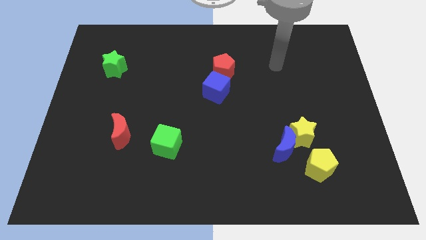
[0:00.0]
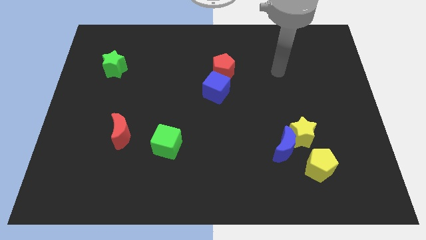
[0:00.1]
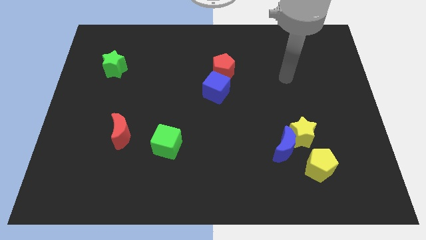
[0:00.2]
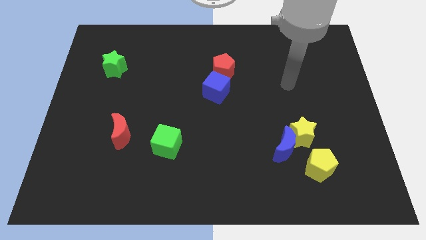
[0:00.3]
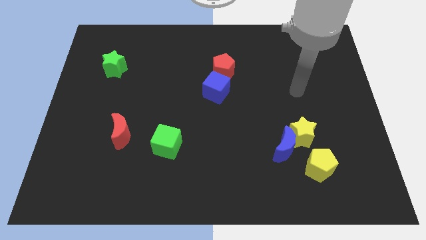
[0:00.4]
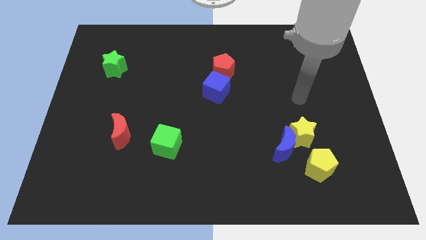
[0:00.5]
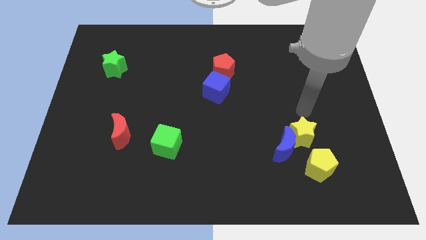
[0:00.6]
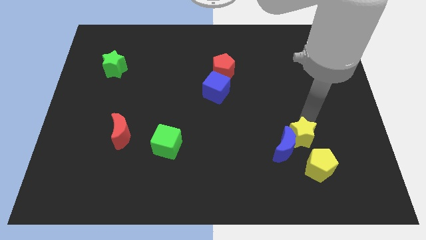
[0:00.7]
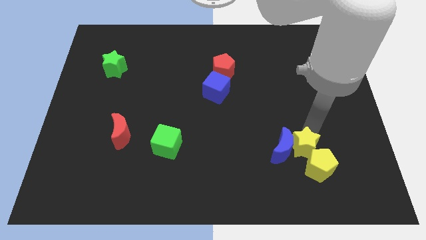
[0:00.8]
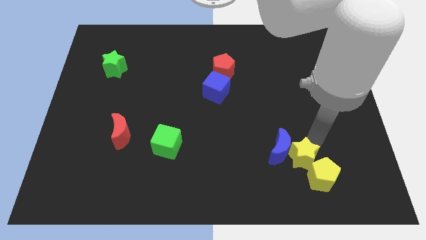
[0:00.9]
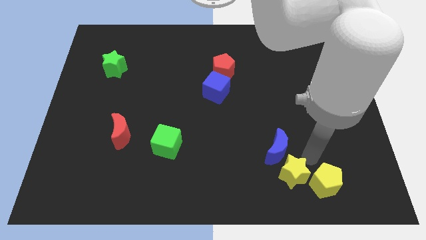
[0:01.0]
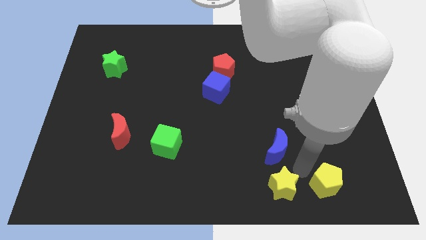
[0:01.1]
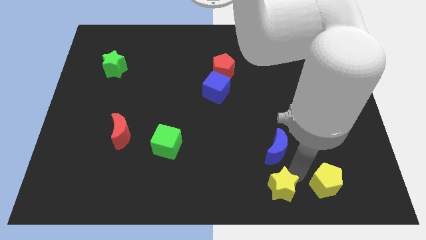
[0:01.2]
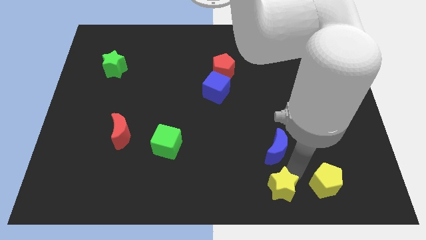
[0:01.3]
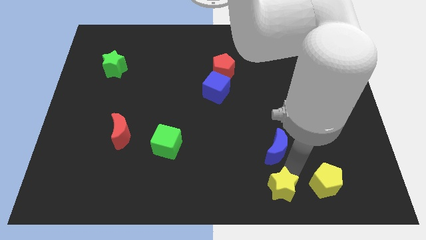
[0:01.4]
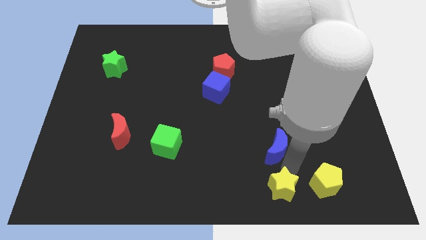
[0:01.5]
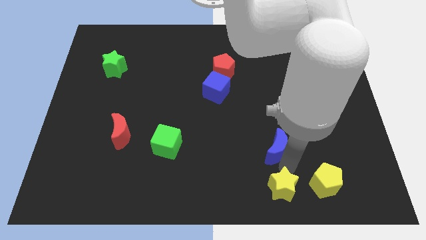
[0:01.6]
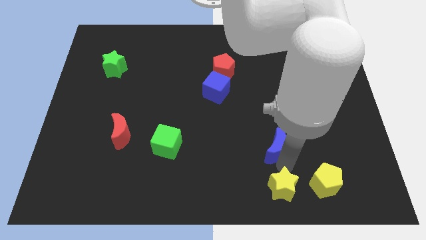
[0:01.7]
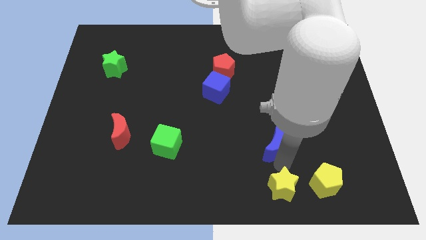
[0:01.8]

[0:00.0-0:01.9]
separate the blue moon from the yellow star and yellow pentagon

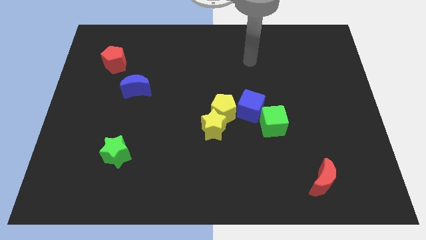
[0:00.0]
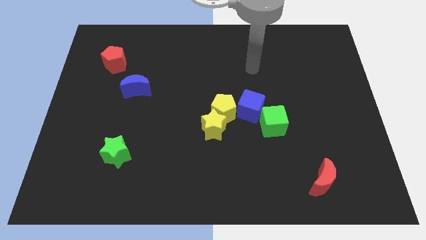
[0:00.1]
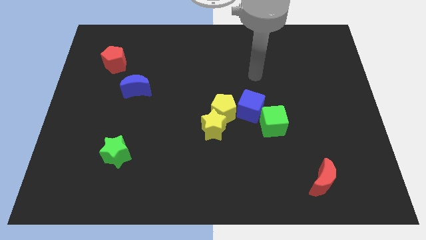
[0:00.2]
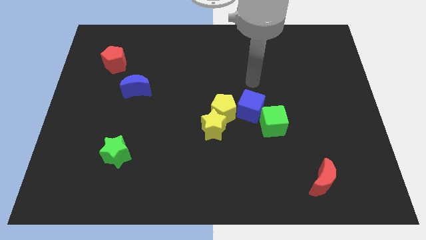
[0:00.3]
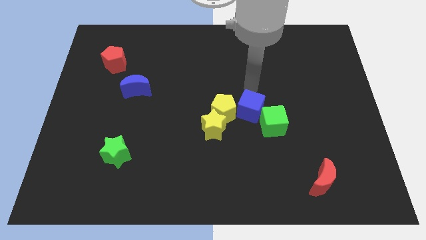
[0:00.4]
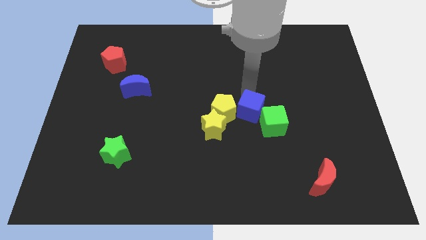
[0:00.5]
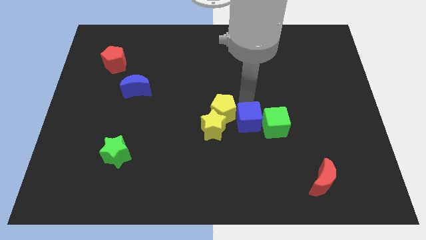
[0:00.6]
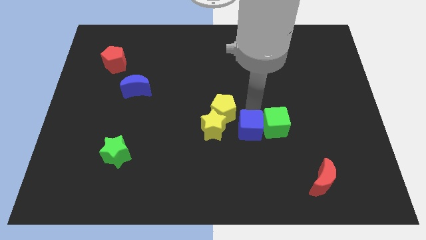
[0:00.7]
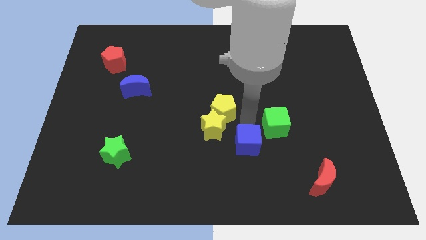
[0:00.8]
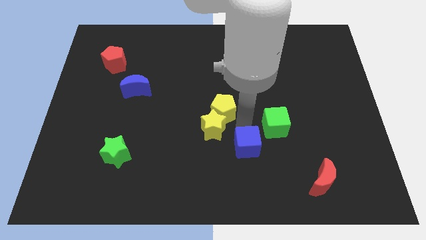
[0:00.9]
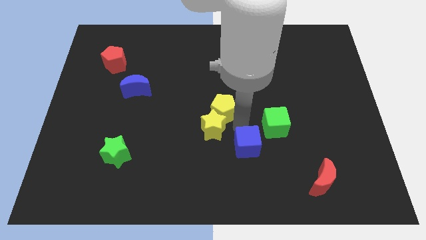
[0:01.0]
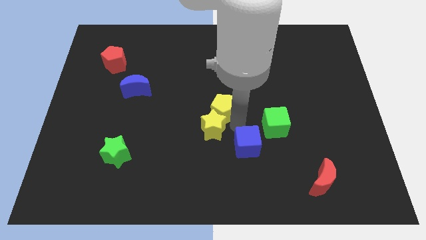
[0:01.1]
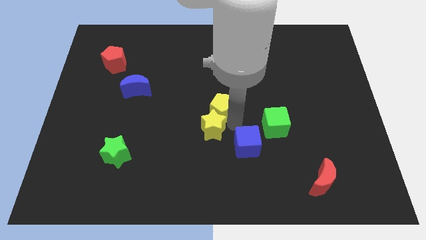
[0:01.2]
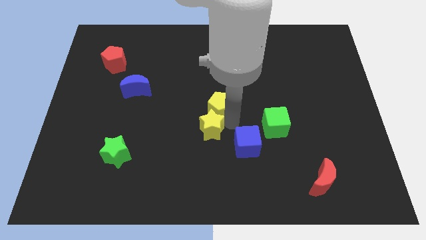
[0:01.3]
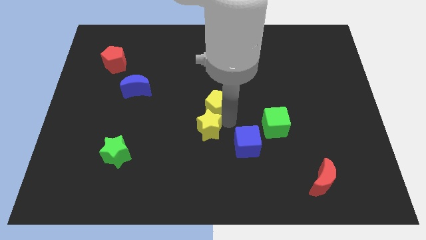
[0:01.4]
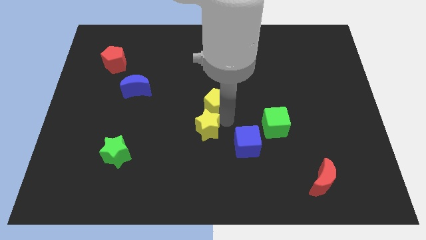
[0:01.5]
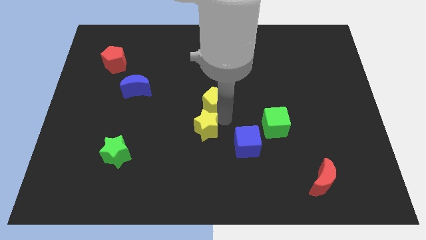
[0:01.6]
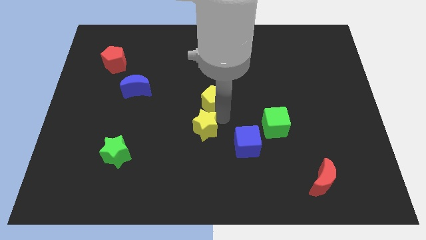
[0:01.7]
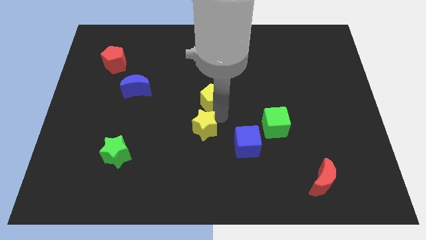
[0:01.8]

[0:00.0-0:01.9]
move the yellow pentagon away from the yellow star and blue cube

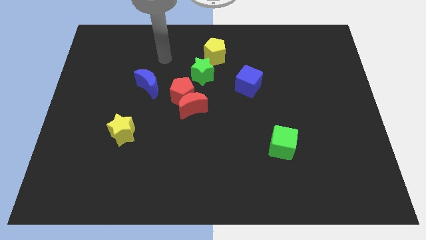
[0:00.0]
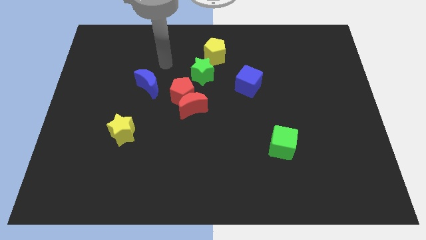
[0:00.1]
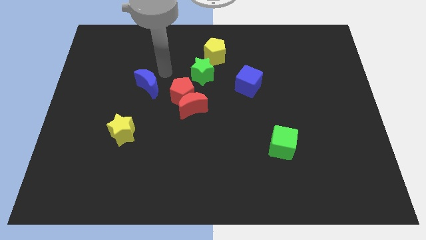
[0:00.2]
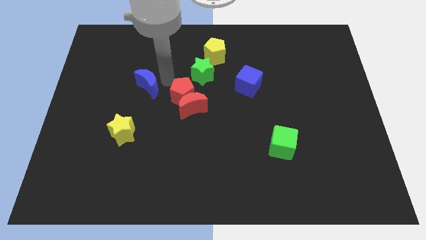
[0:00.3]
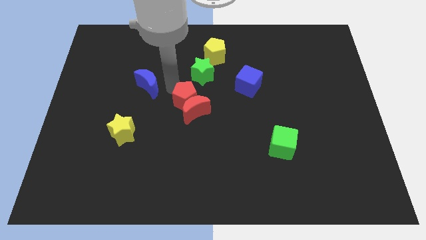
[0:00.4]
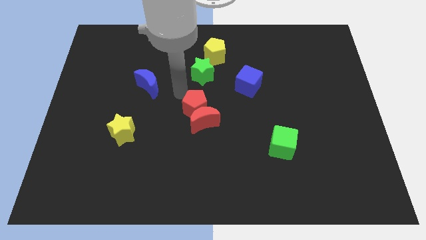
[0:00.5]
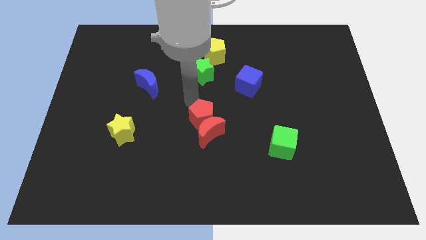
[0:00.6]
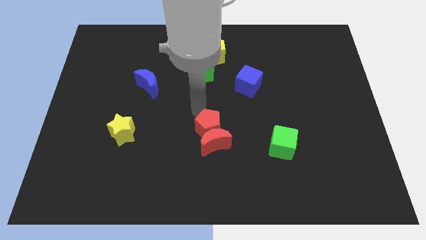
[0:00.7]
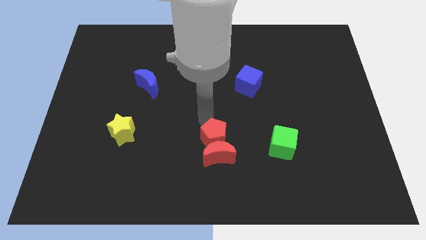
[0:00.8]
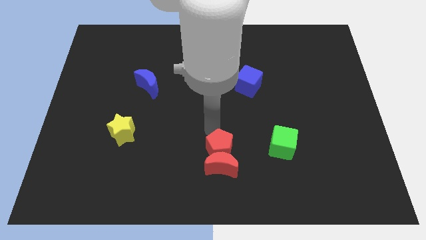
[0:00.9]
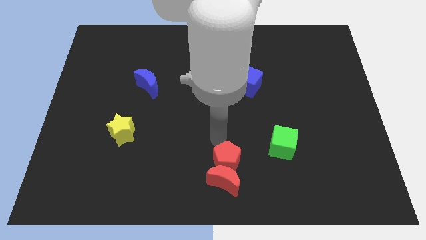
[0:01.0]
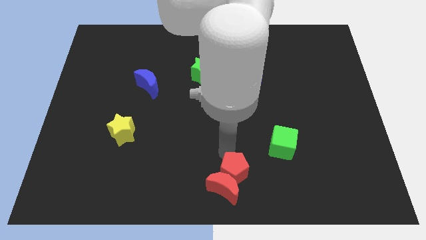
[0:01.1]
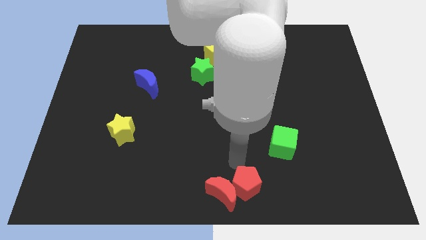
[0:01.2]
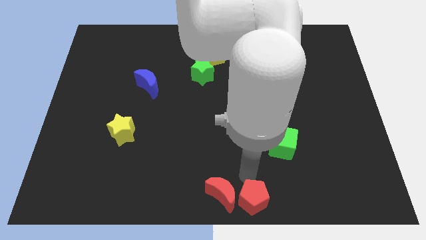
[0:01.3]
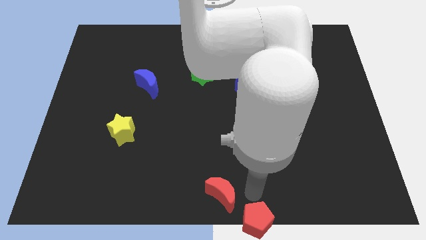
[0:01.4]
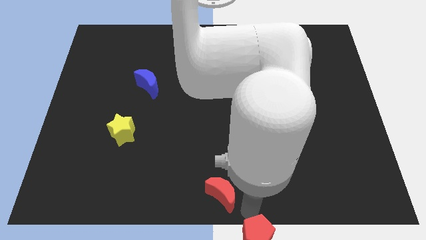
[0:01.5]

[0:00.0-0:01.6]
pull the red moon apart from the red pentagon

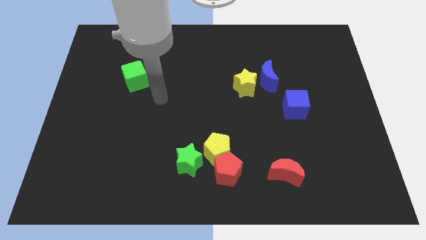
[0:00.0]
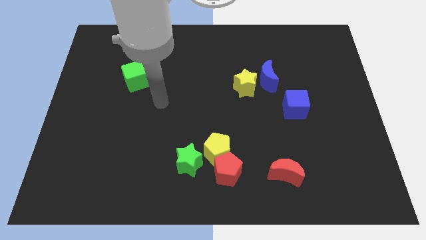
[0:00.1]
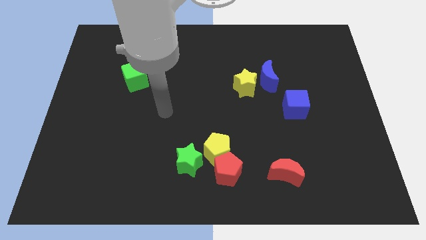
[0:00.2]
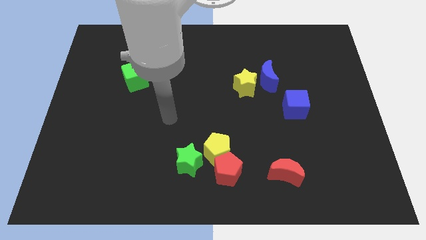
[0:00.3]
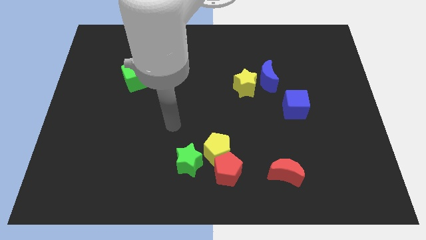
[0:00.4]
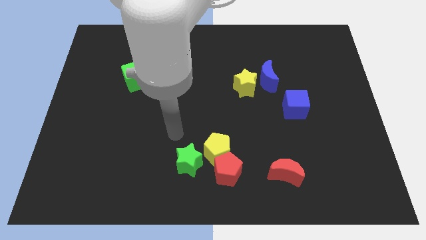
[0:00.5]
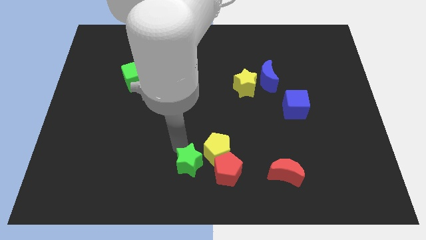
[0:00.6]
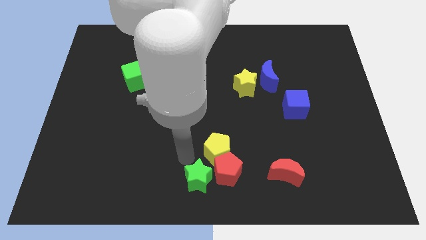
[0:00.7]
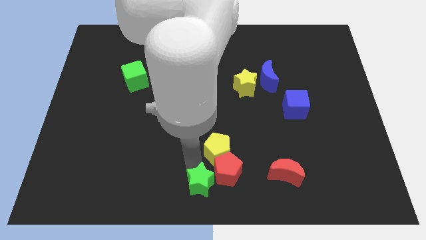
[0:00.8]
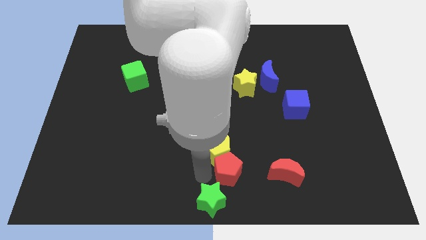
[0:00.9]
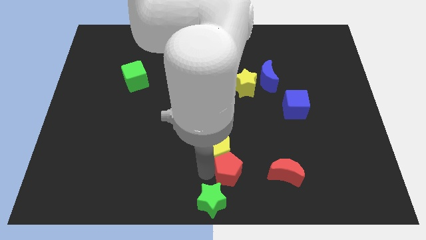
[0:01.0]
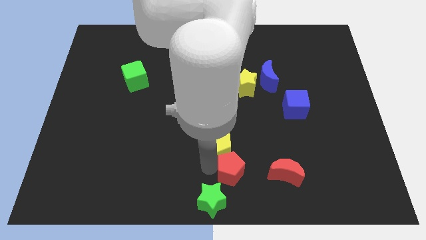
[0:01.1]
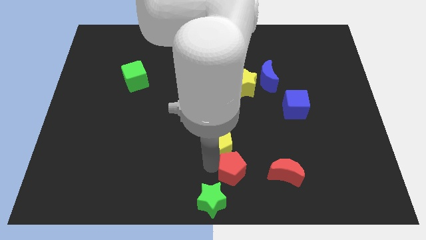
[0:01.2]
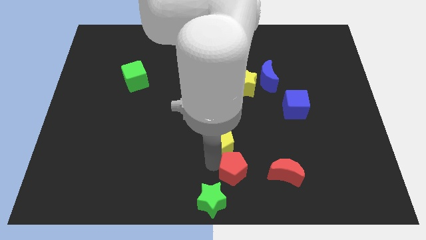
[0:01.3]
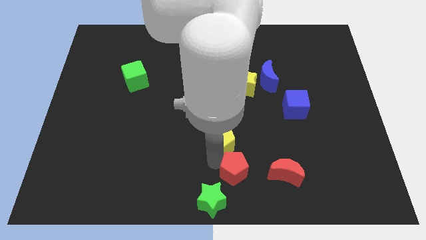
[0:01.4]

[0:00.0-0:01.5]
separate the yellow pentagon from the red pentagon and green star

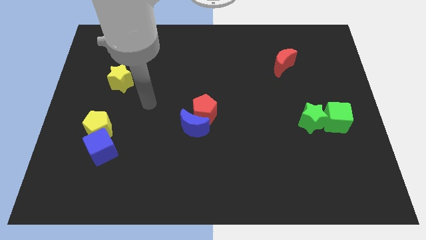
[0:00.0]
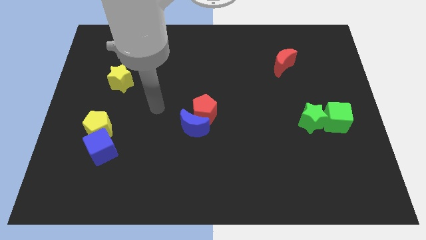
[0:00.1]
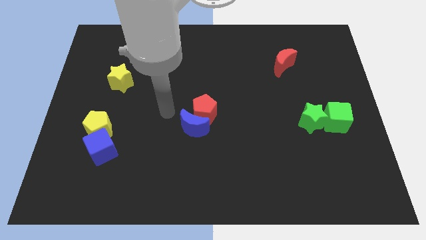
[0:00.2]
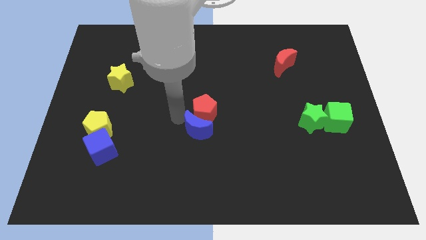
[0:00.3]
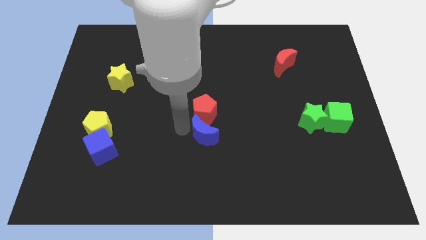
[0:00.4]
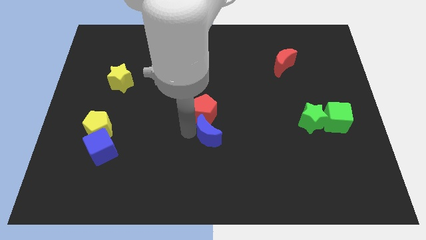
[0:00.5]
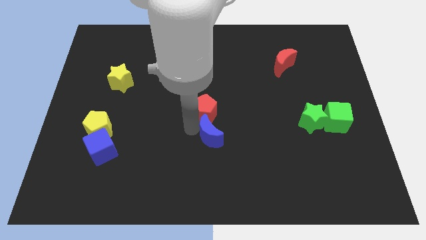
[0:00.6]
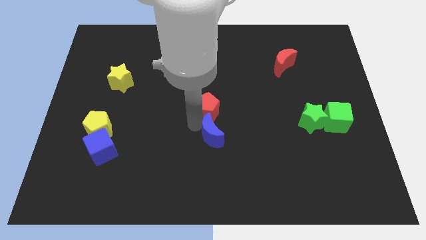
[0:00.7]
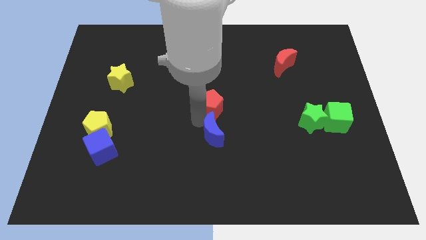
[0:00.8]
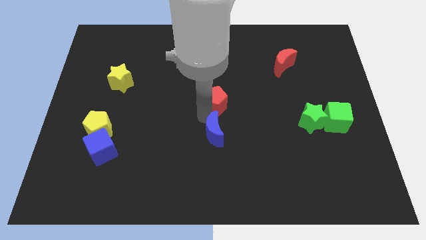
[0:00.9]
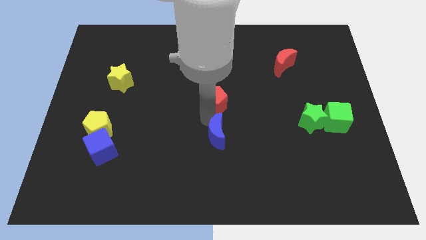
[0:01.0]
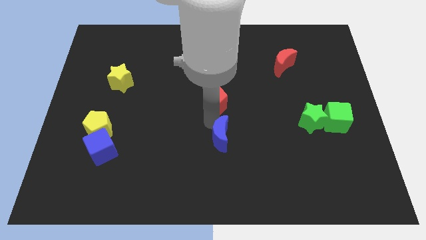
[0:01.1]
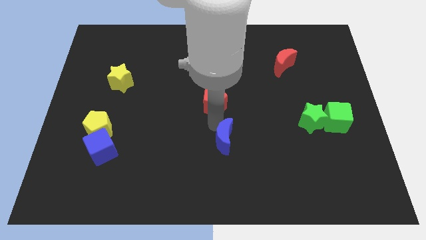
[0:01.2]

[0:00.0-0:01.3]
move the red pentagon away from the blue moon

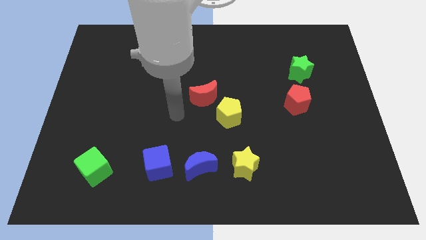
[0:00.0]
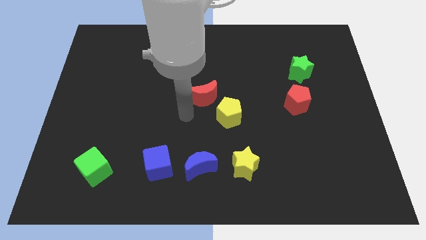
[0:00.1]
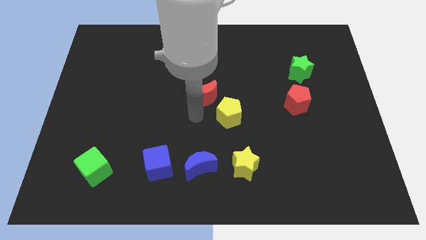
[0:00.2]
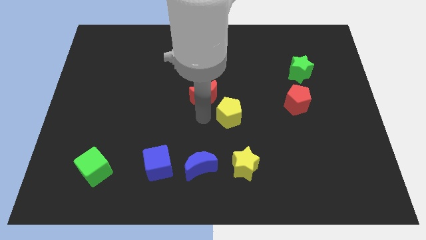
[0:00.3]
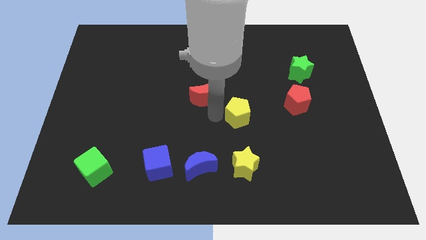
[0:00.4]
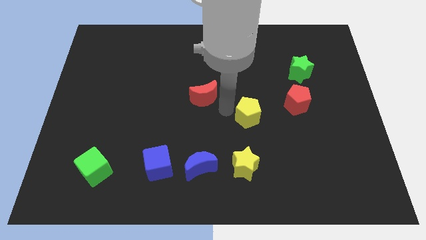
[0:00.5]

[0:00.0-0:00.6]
pull the red moon apart from the yellow pentagon

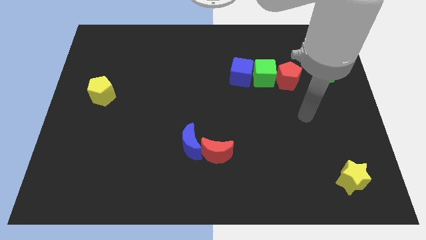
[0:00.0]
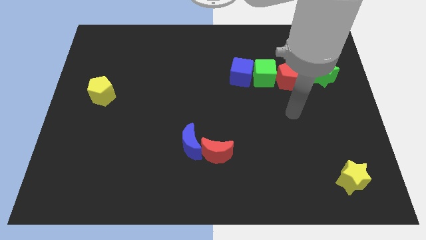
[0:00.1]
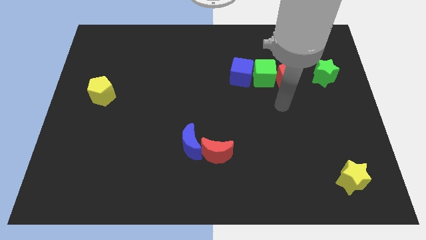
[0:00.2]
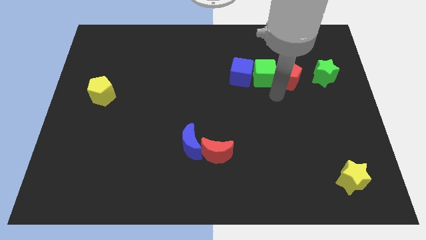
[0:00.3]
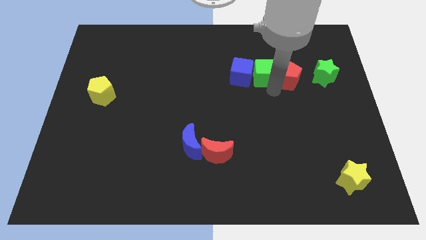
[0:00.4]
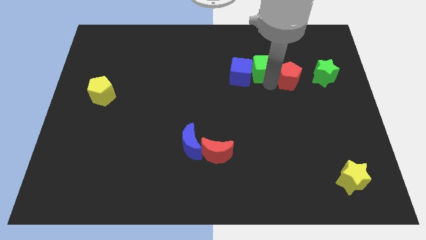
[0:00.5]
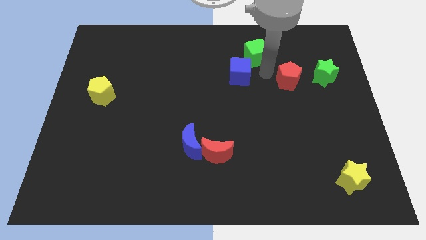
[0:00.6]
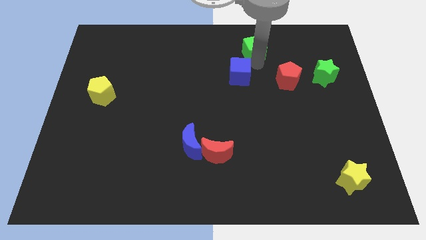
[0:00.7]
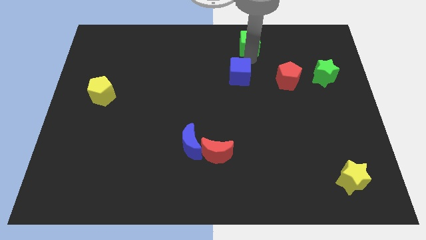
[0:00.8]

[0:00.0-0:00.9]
move the blue cube away from the green cube
